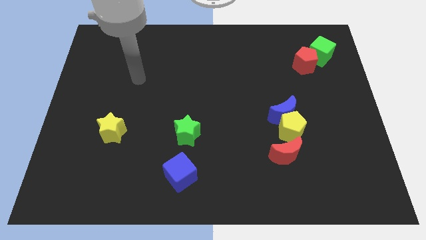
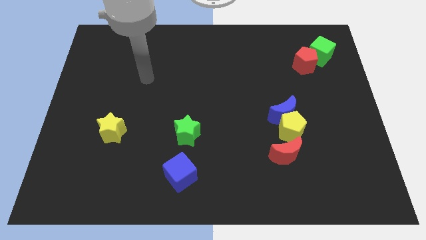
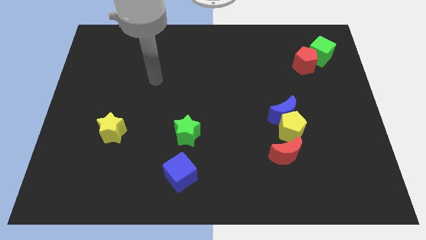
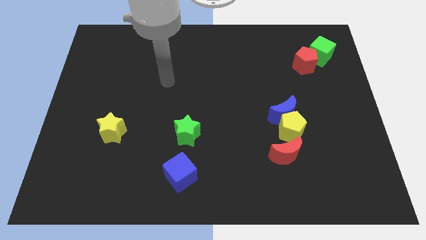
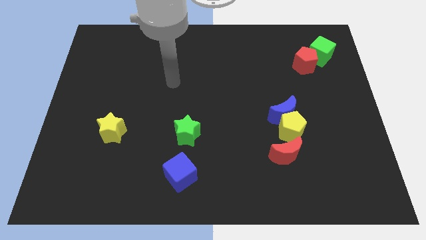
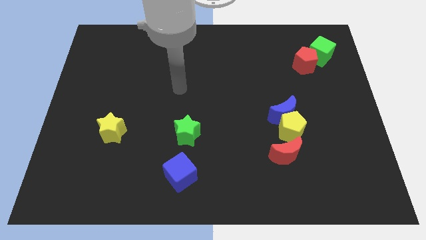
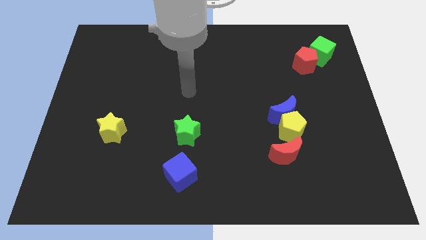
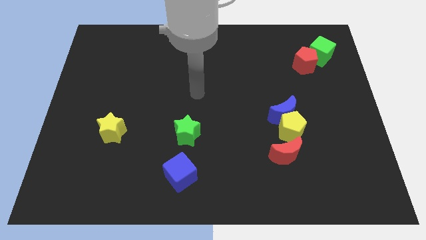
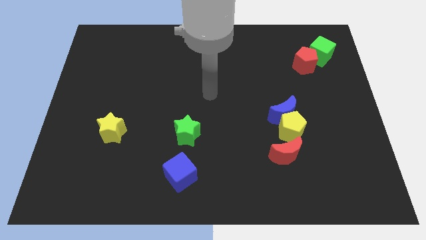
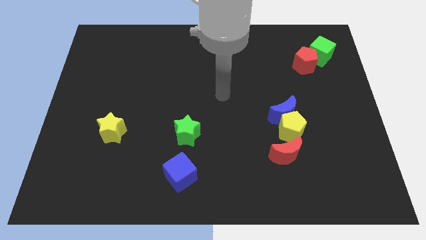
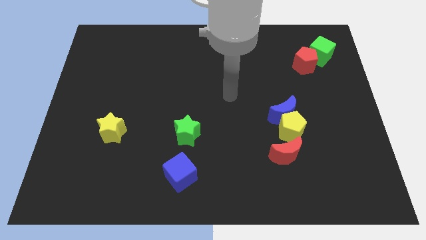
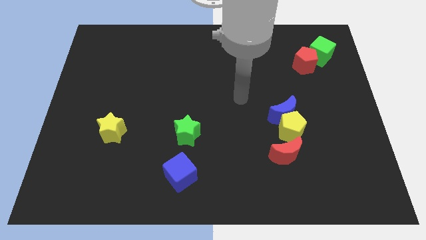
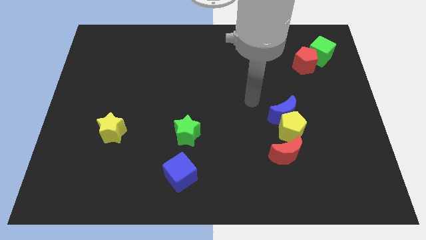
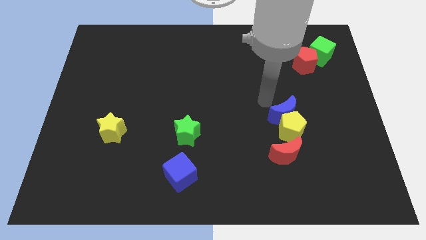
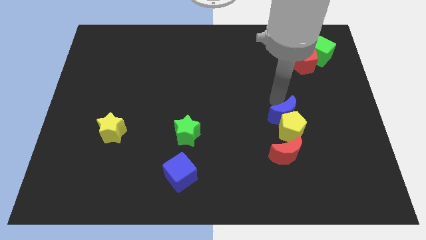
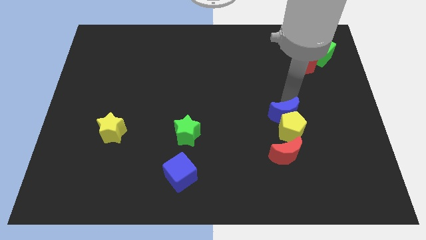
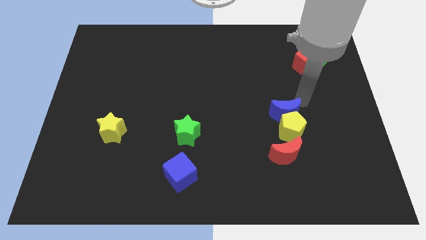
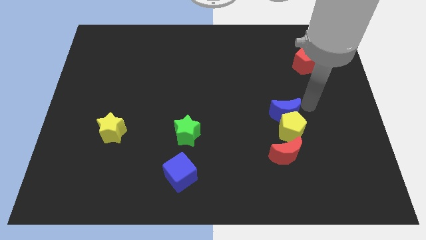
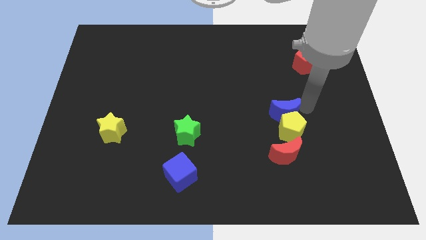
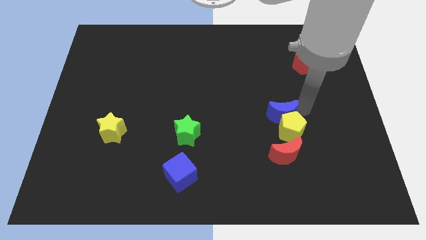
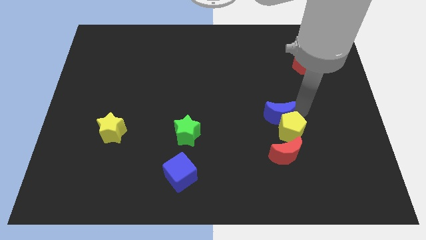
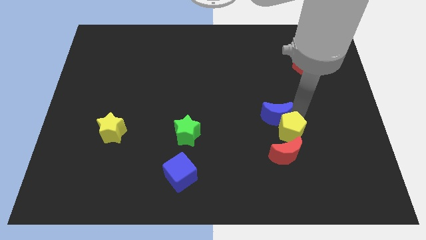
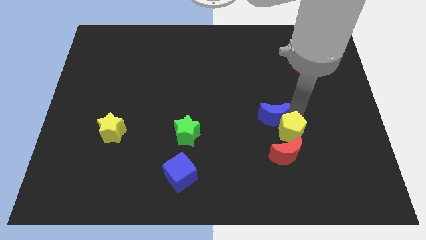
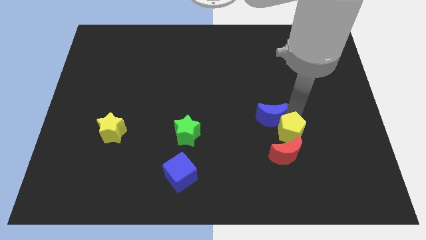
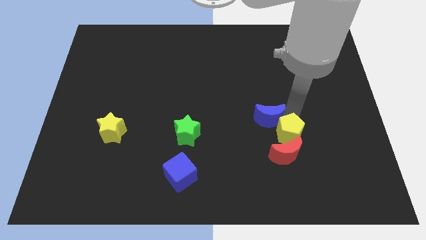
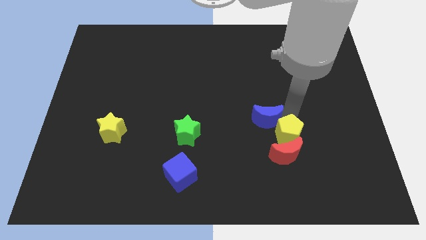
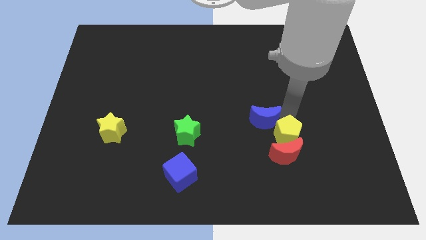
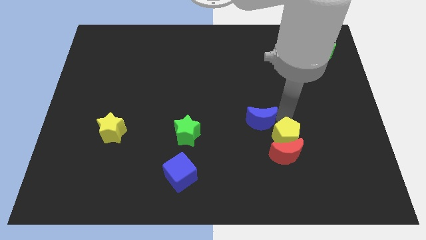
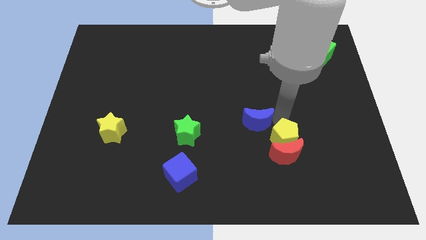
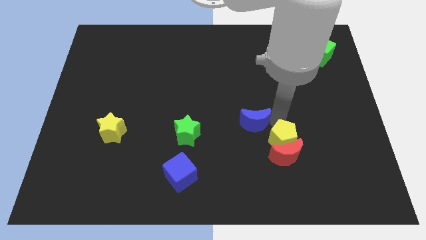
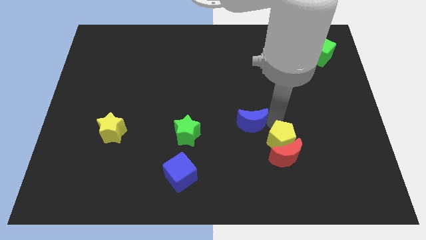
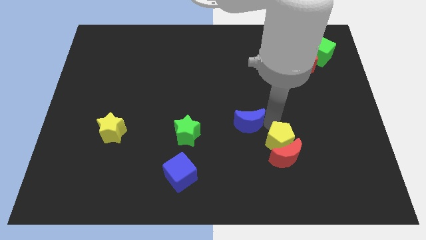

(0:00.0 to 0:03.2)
move the blue moon slightly diagonally down and left

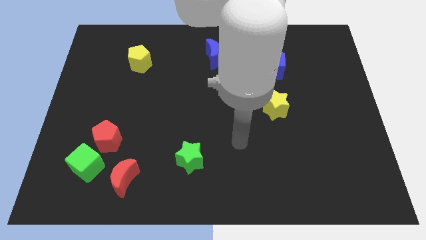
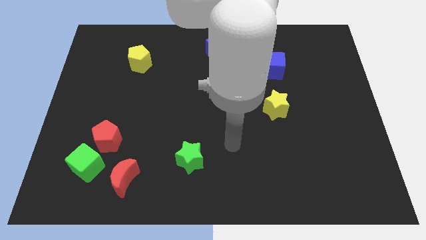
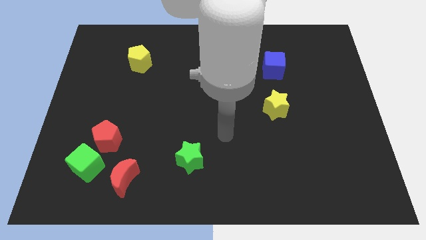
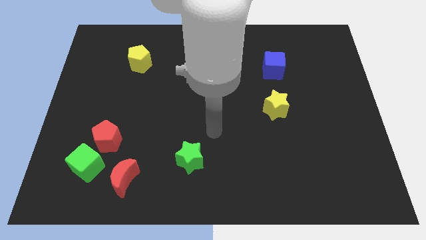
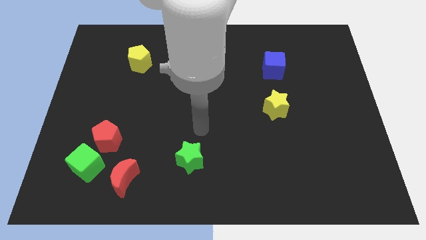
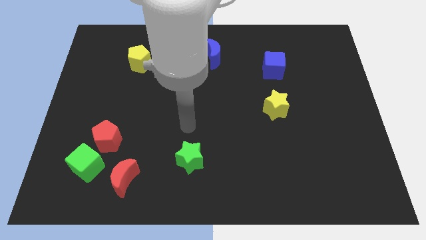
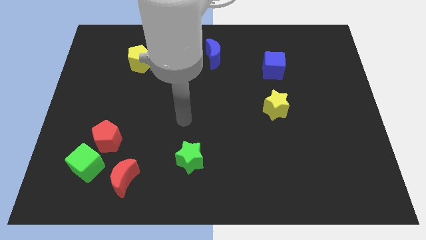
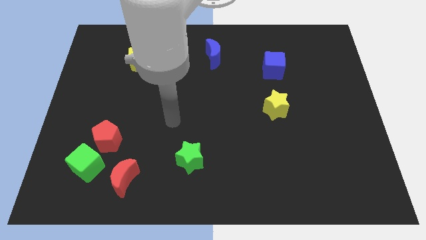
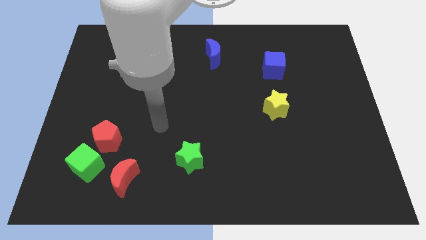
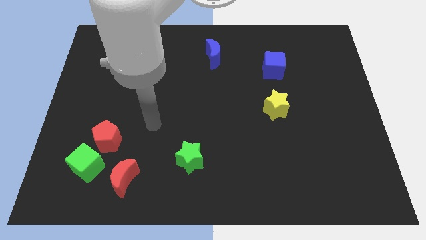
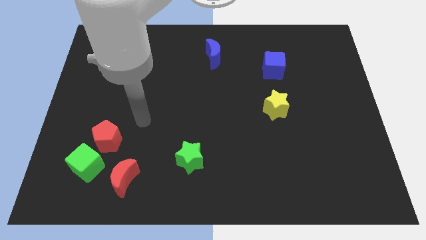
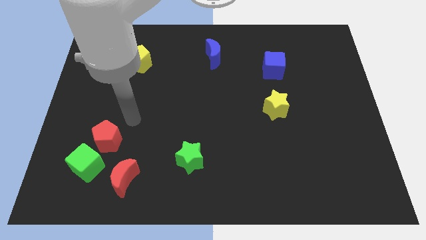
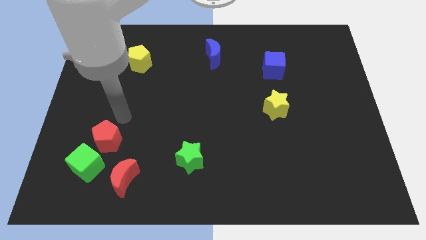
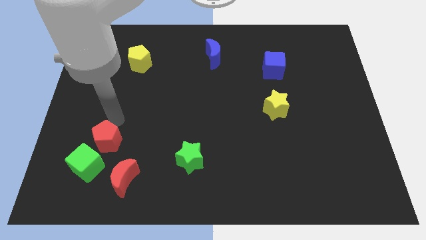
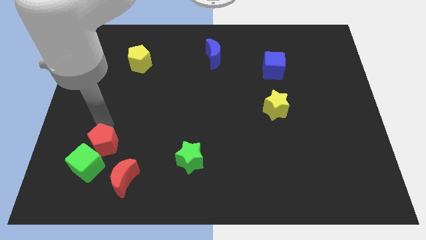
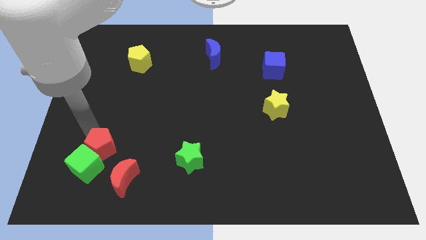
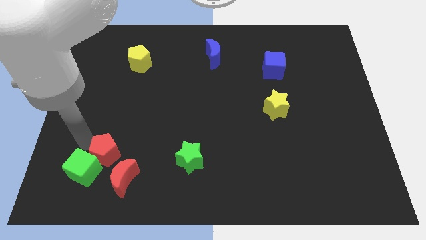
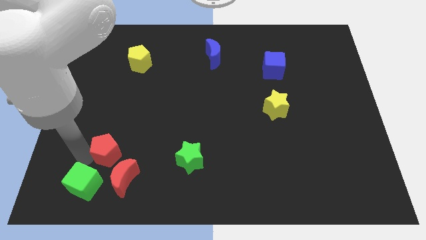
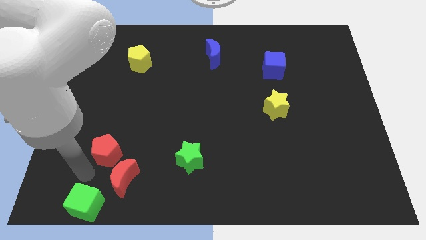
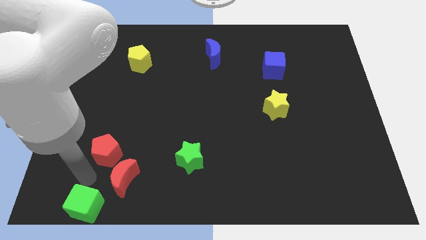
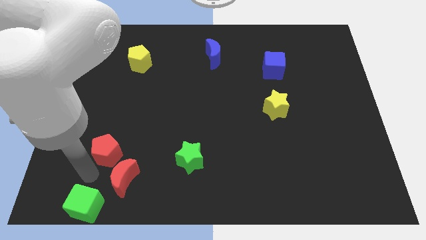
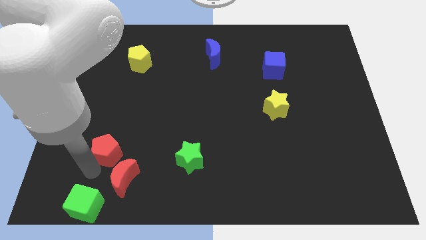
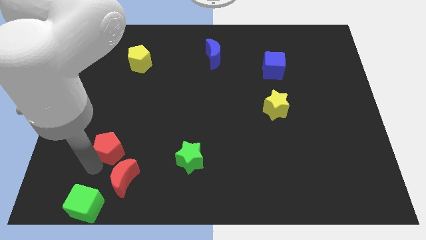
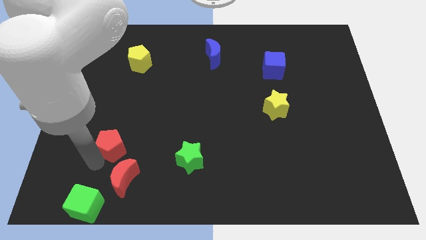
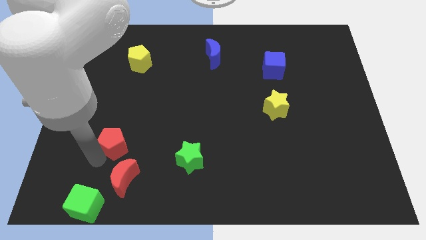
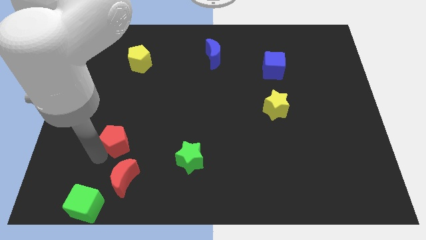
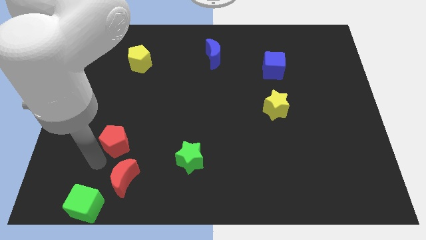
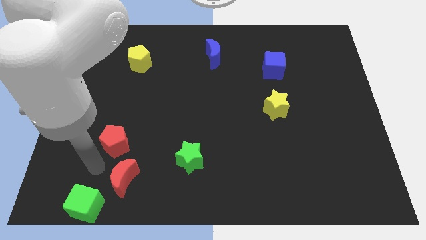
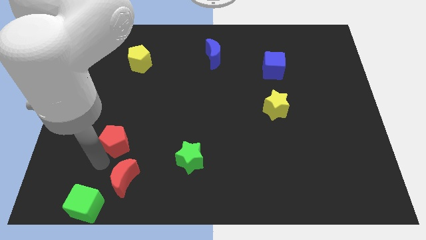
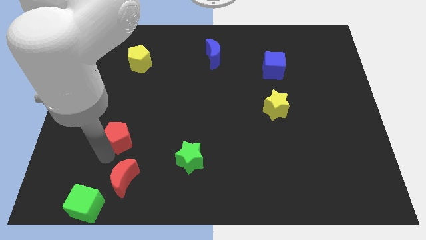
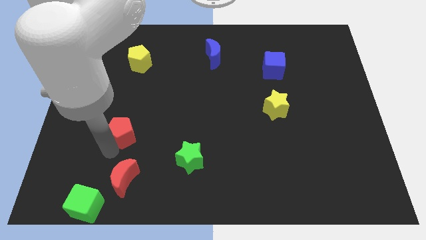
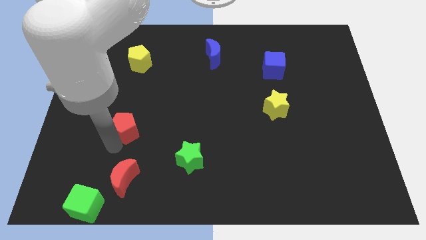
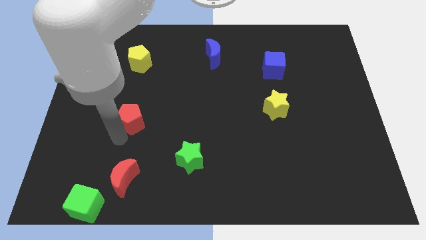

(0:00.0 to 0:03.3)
slightly slide the red pentagon upwards and right

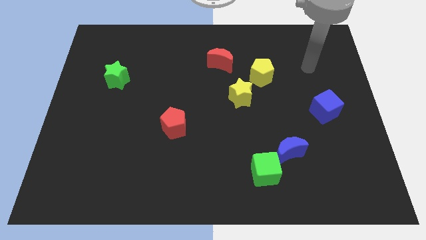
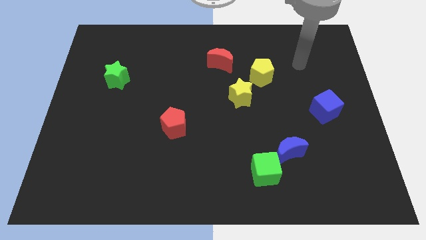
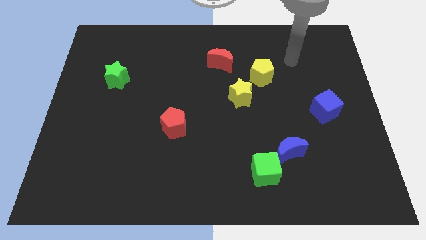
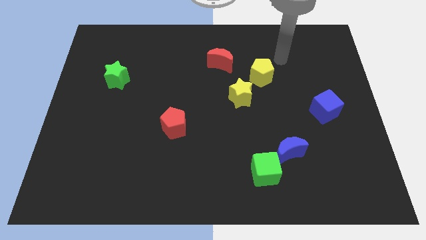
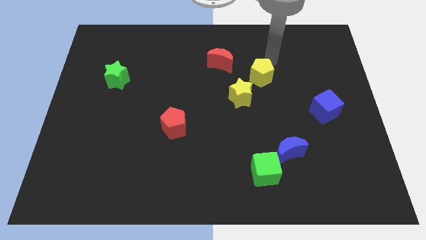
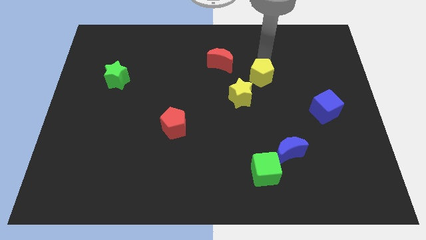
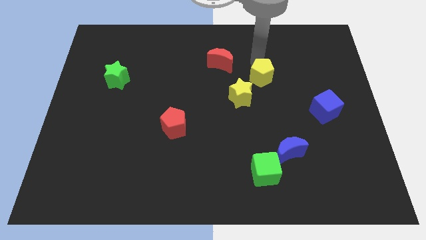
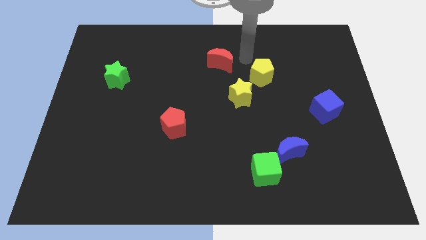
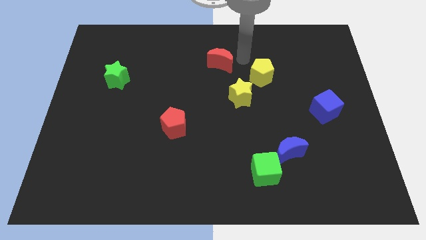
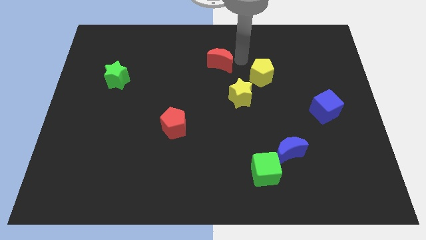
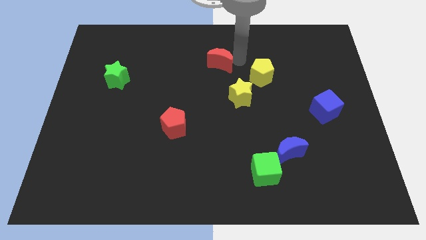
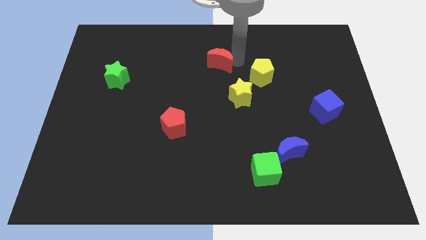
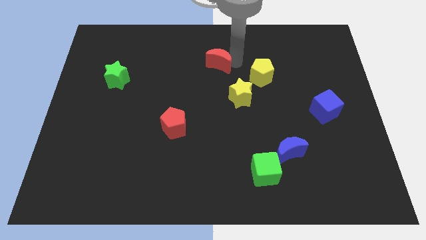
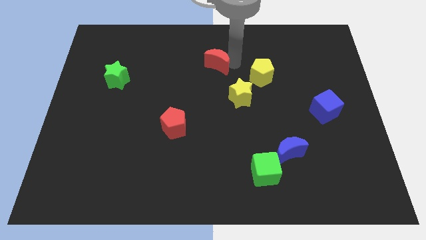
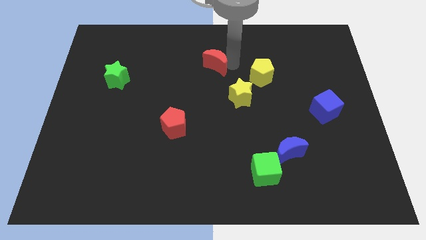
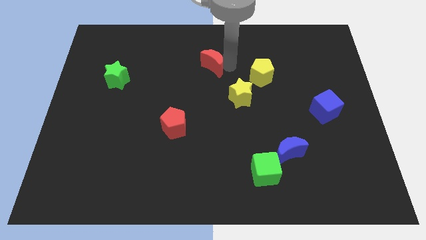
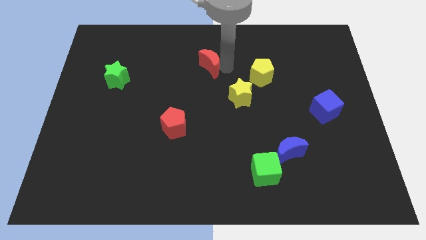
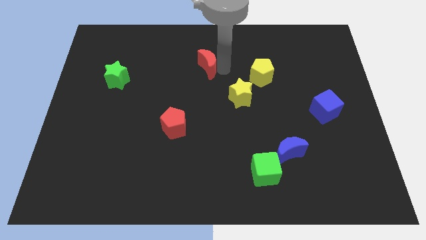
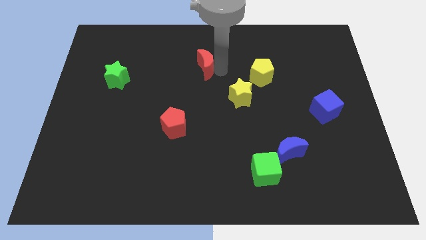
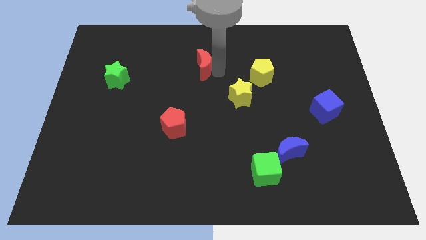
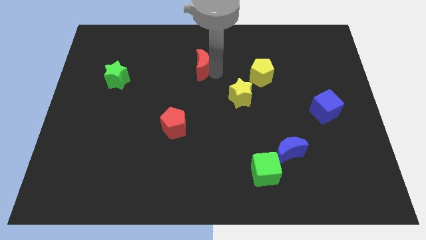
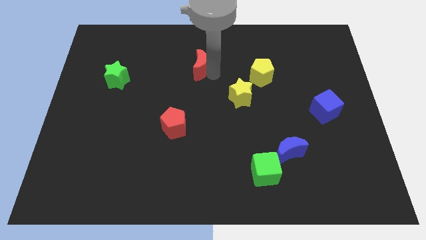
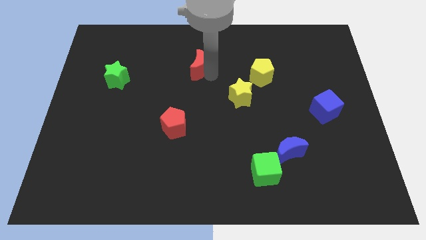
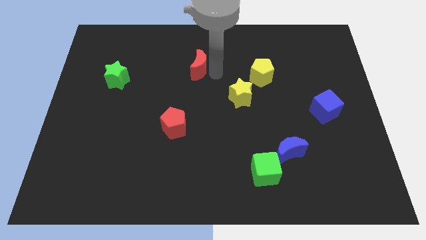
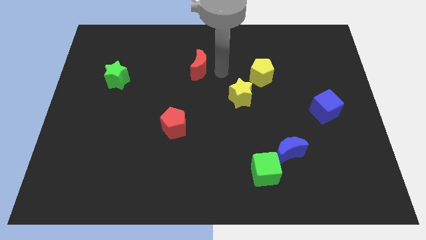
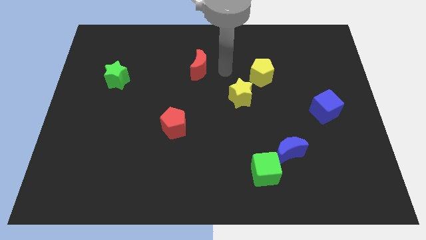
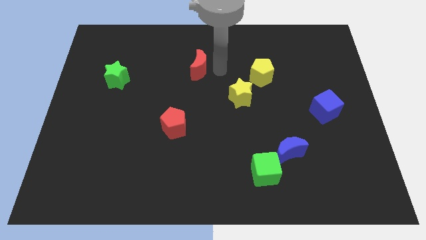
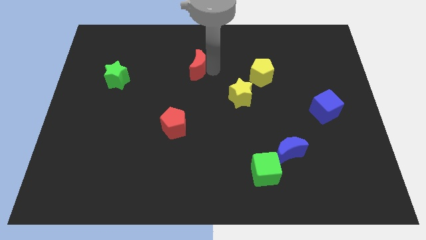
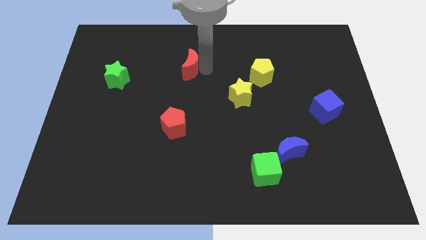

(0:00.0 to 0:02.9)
slightly slide the red moon left
